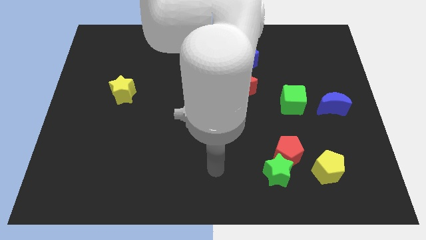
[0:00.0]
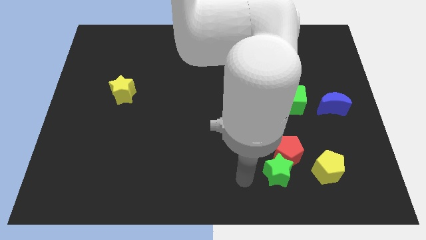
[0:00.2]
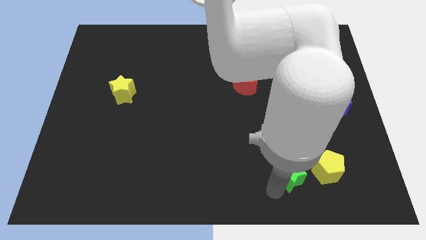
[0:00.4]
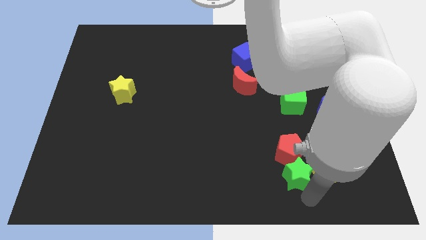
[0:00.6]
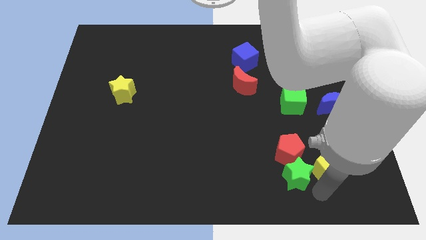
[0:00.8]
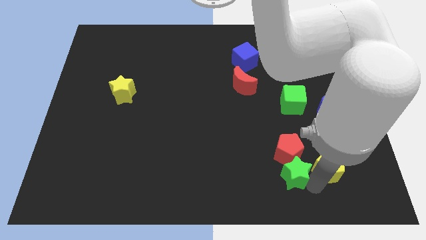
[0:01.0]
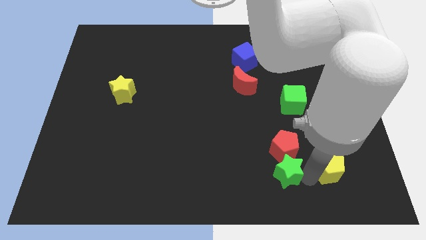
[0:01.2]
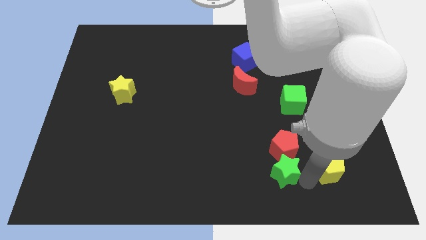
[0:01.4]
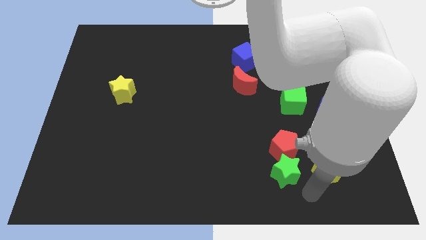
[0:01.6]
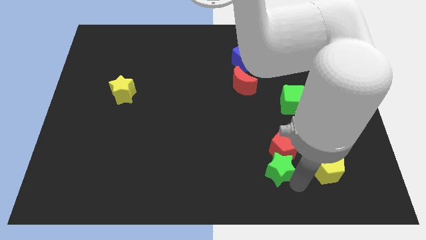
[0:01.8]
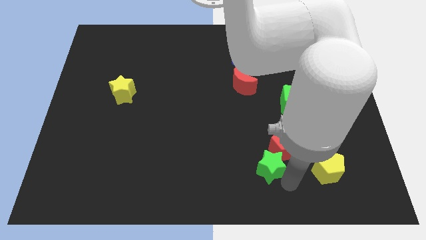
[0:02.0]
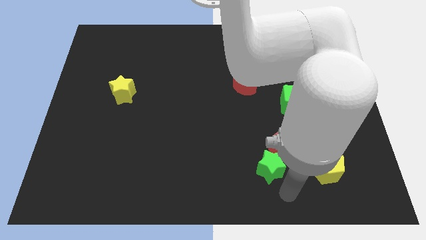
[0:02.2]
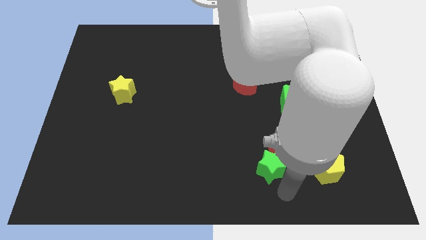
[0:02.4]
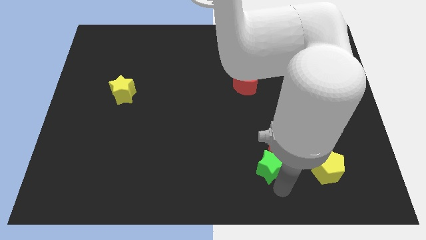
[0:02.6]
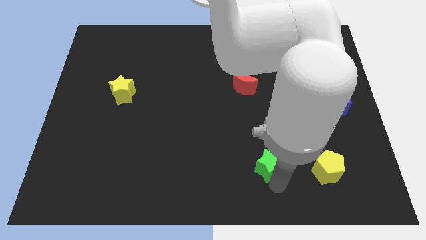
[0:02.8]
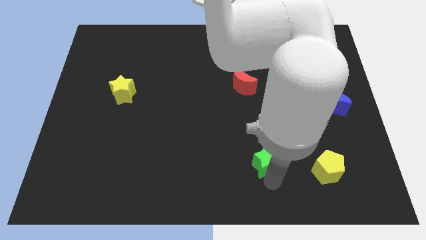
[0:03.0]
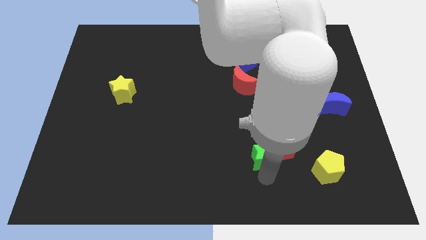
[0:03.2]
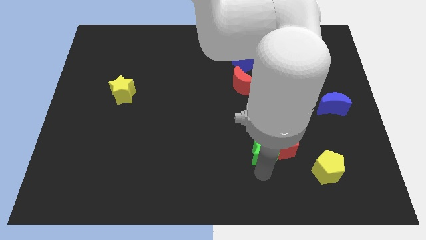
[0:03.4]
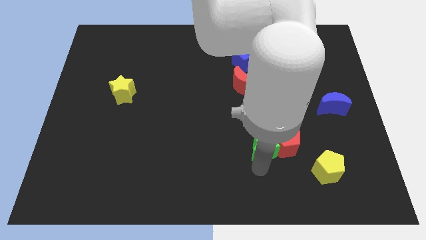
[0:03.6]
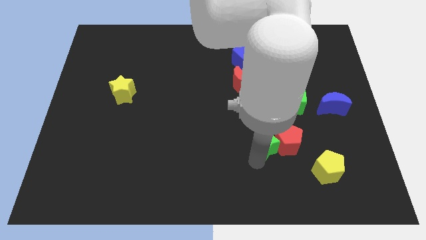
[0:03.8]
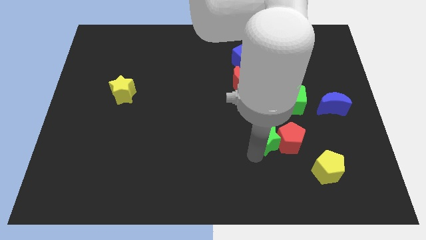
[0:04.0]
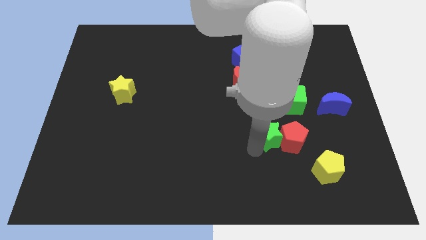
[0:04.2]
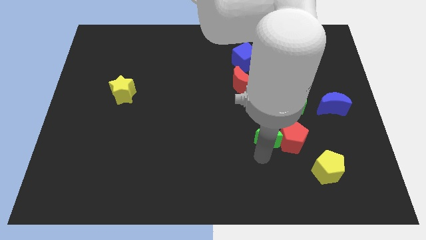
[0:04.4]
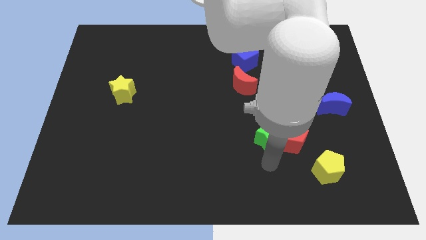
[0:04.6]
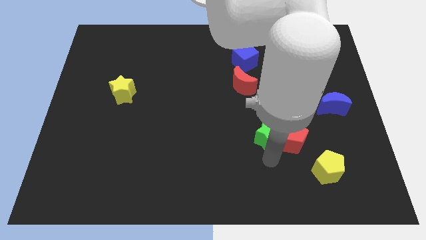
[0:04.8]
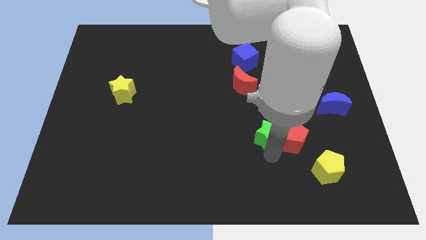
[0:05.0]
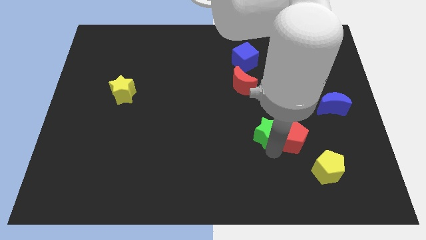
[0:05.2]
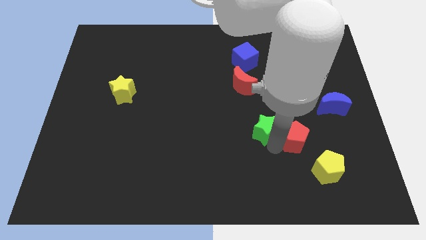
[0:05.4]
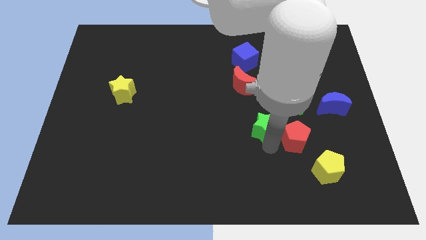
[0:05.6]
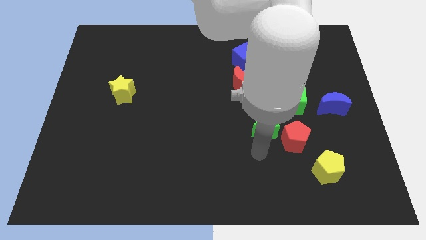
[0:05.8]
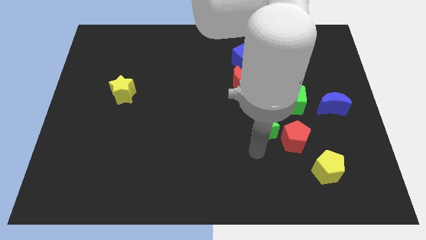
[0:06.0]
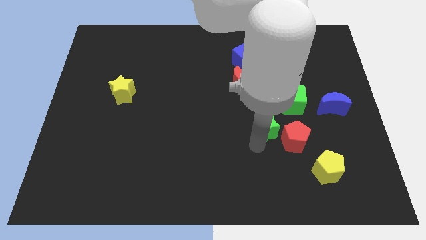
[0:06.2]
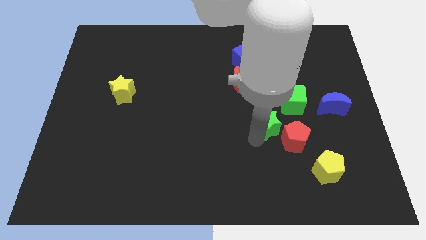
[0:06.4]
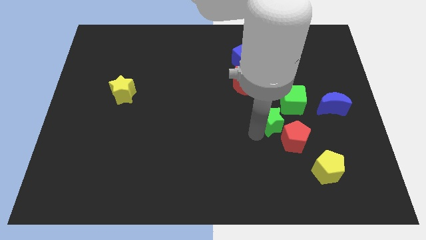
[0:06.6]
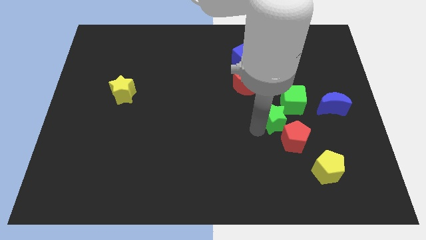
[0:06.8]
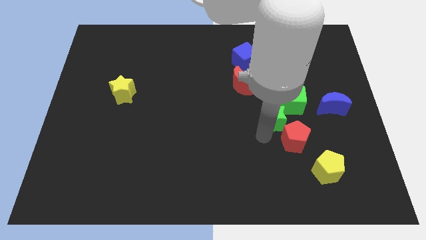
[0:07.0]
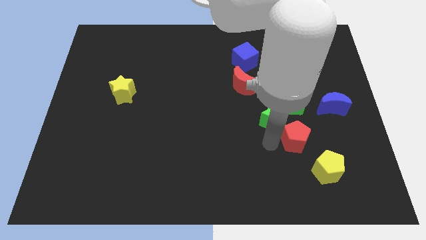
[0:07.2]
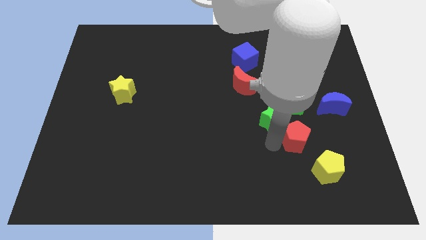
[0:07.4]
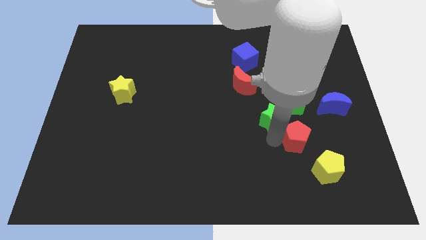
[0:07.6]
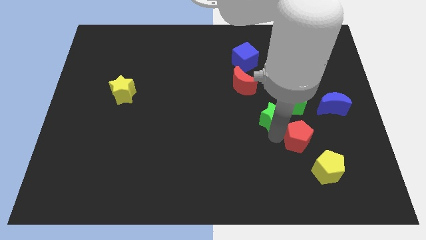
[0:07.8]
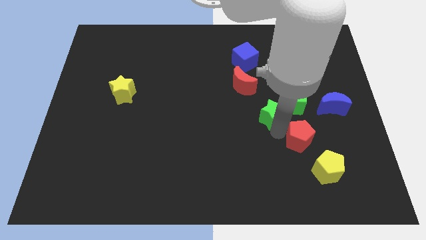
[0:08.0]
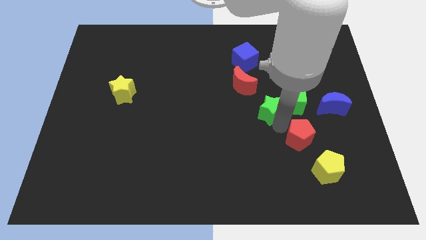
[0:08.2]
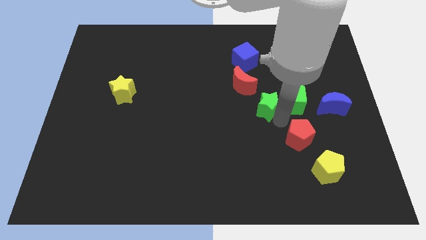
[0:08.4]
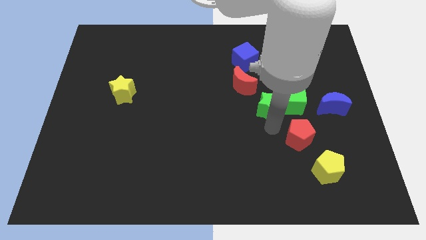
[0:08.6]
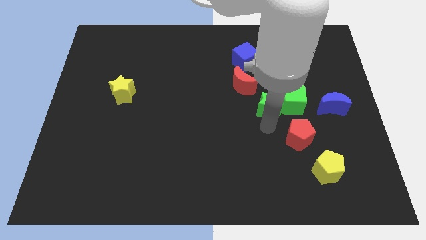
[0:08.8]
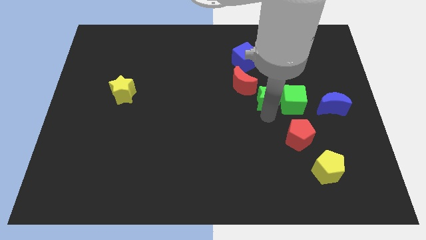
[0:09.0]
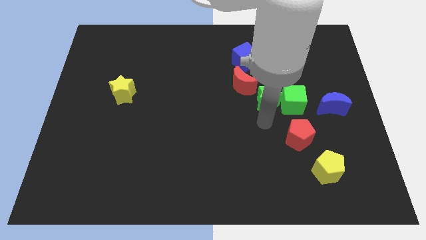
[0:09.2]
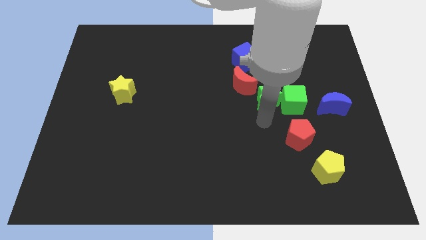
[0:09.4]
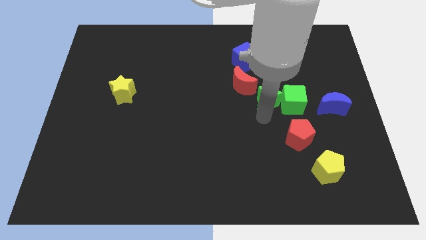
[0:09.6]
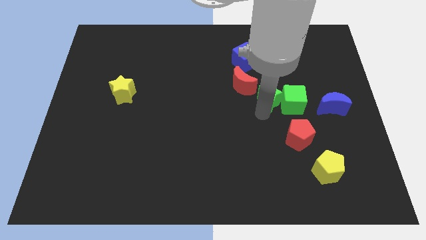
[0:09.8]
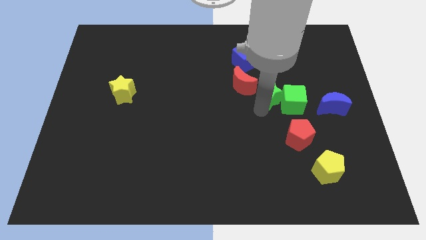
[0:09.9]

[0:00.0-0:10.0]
slide the green star up

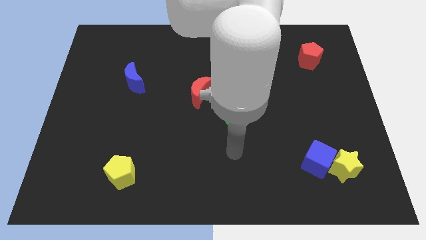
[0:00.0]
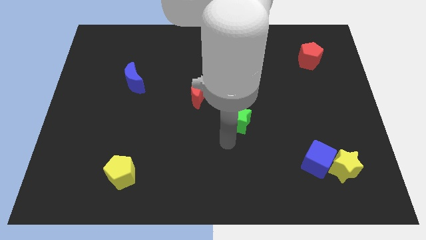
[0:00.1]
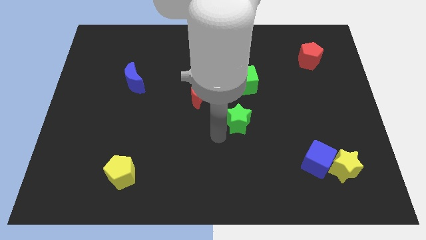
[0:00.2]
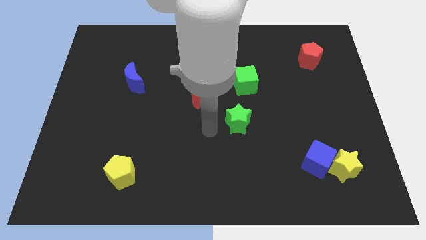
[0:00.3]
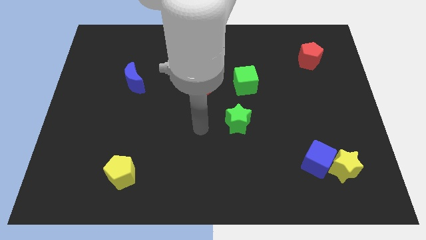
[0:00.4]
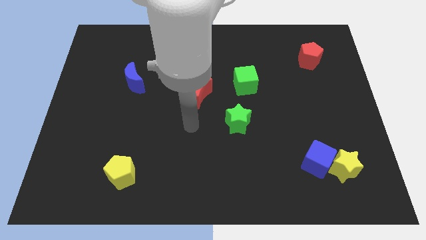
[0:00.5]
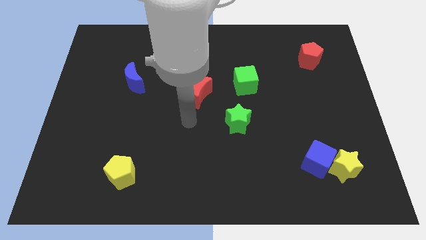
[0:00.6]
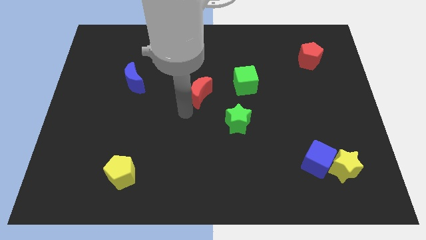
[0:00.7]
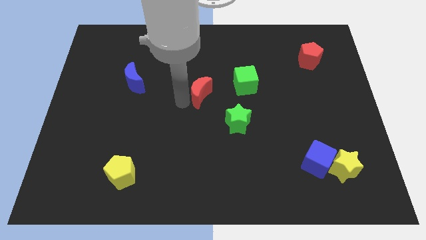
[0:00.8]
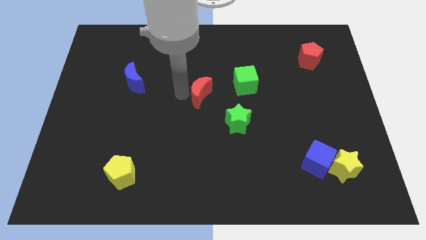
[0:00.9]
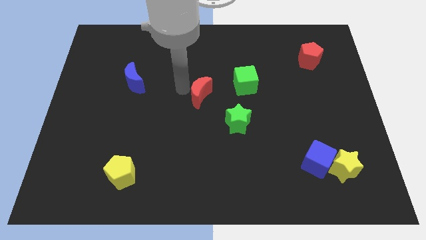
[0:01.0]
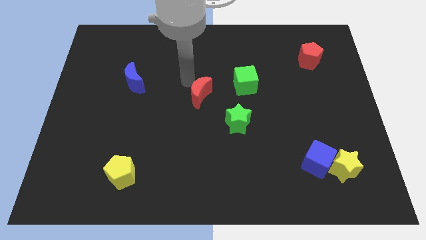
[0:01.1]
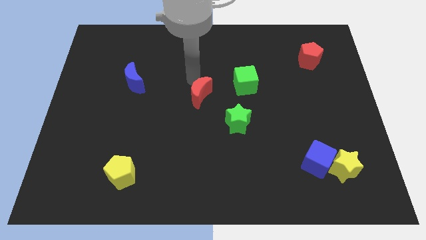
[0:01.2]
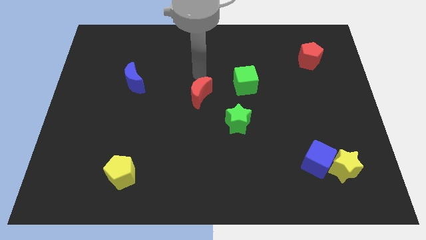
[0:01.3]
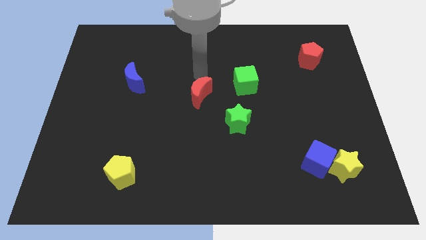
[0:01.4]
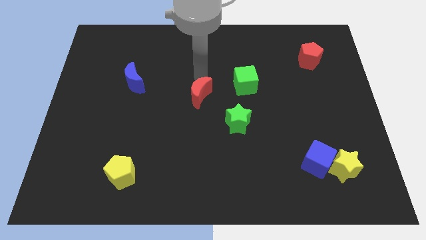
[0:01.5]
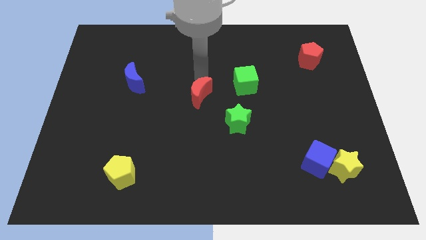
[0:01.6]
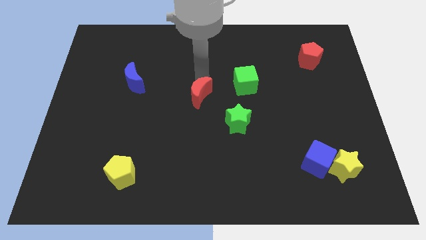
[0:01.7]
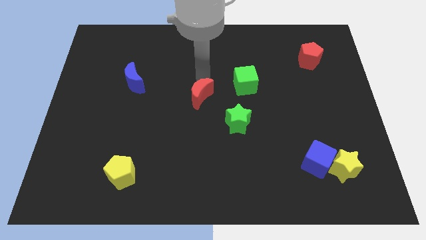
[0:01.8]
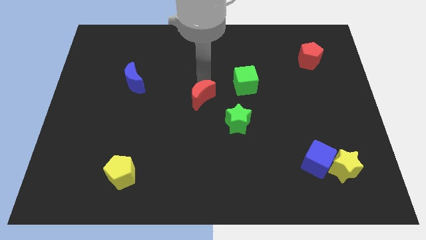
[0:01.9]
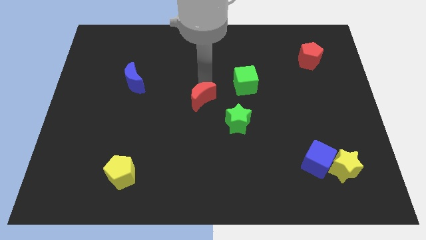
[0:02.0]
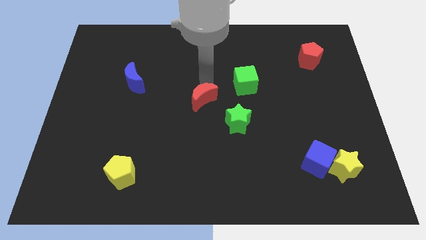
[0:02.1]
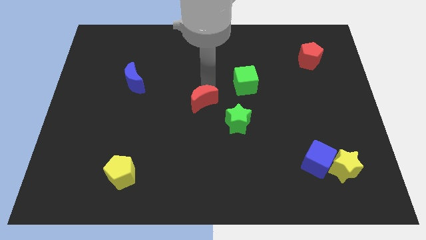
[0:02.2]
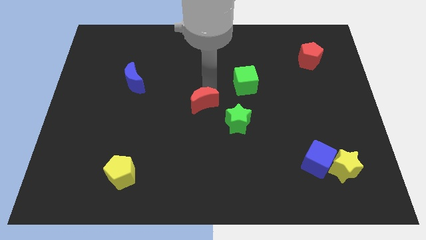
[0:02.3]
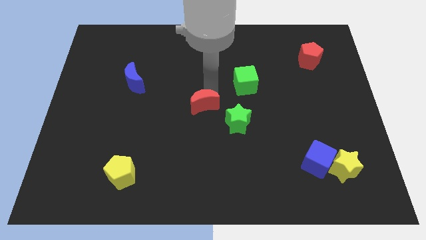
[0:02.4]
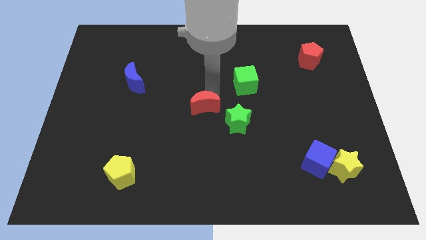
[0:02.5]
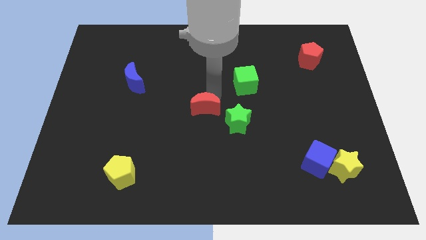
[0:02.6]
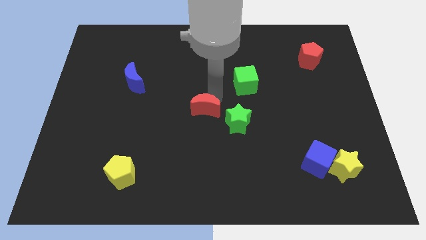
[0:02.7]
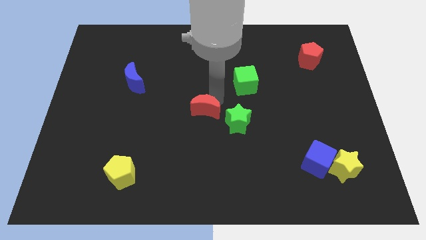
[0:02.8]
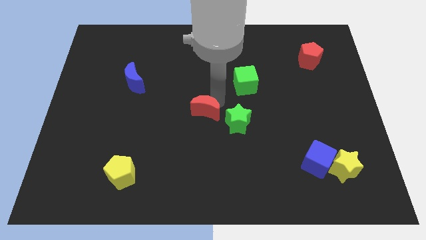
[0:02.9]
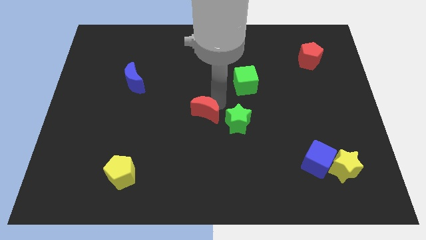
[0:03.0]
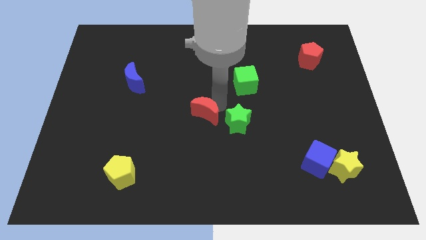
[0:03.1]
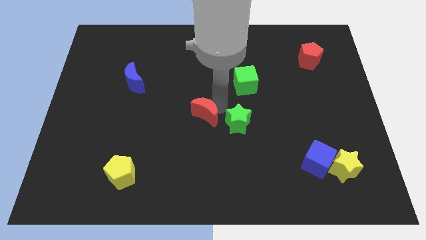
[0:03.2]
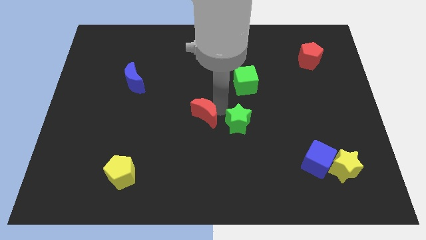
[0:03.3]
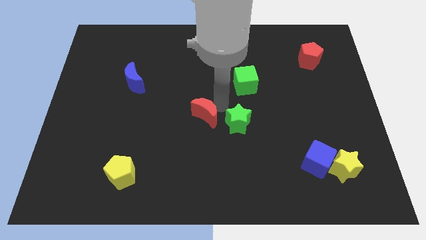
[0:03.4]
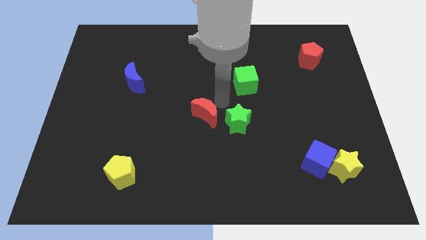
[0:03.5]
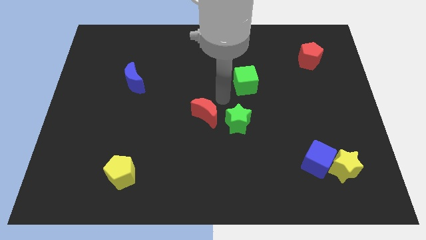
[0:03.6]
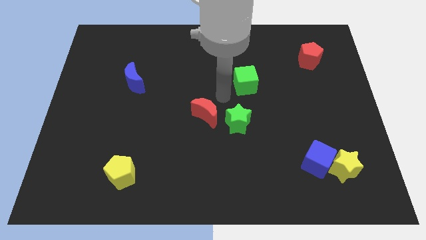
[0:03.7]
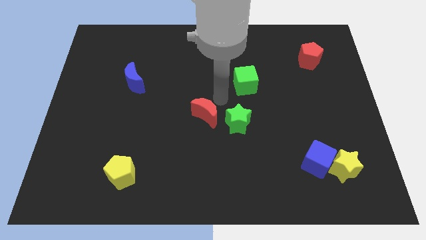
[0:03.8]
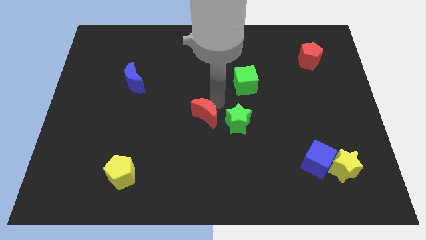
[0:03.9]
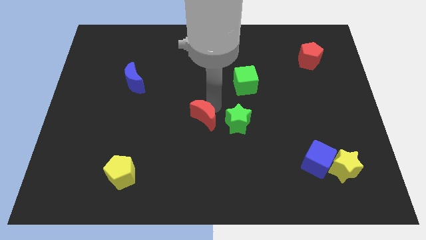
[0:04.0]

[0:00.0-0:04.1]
slightly slide the red moon down
